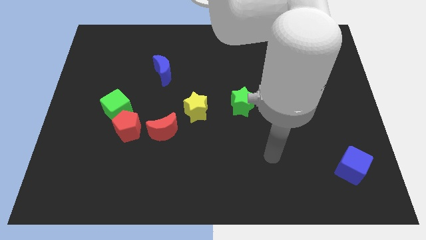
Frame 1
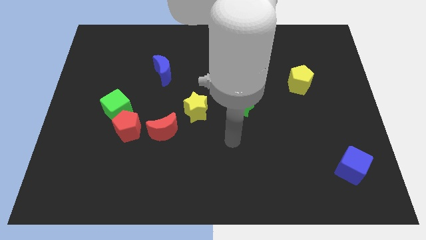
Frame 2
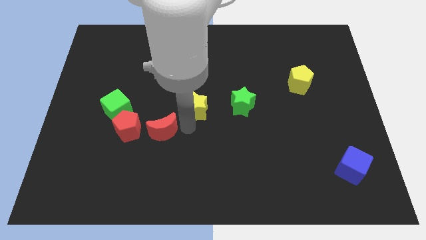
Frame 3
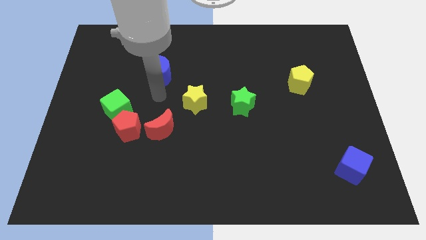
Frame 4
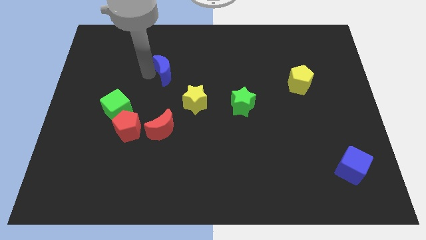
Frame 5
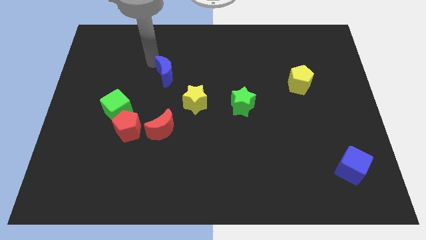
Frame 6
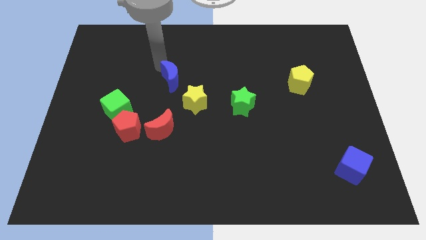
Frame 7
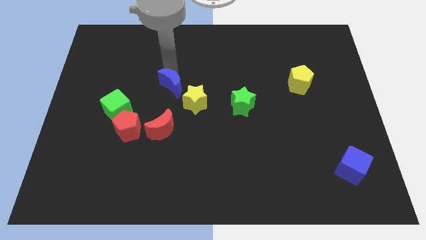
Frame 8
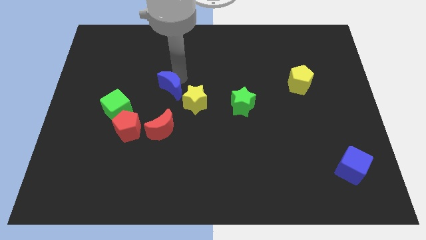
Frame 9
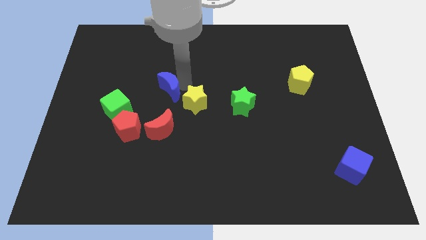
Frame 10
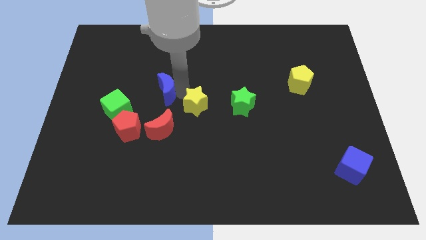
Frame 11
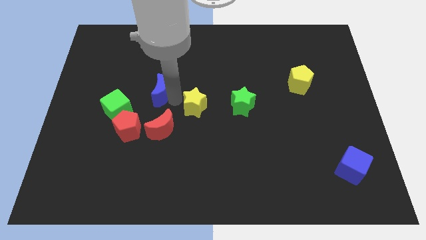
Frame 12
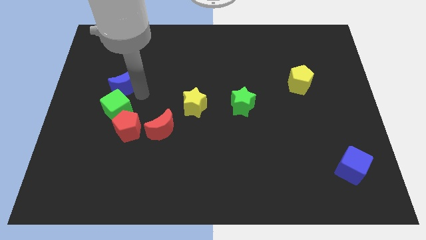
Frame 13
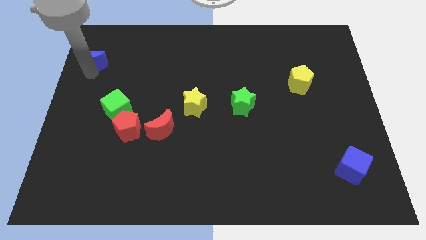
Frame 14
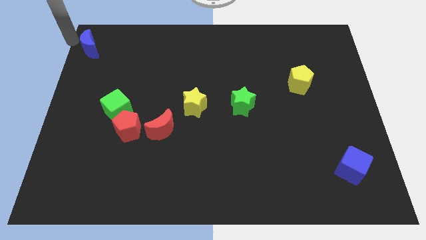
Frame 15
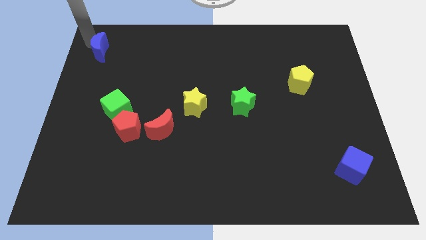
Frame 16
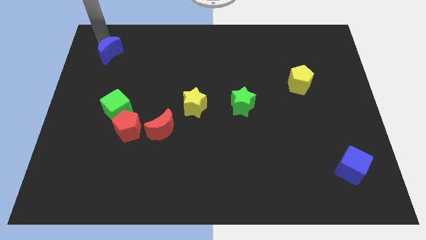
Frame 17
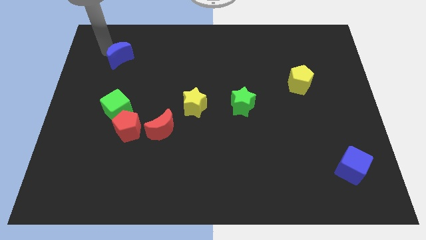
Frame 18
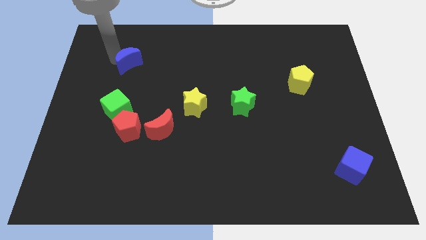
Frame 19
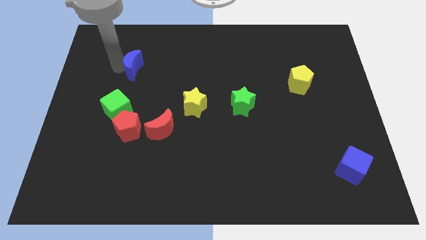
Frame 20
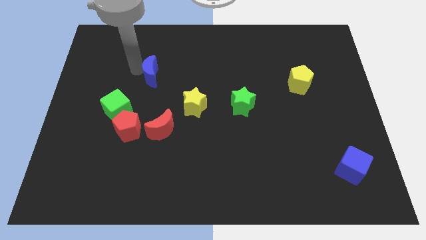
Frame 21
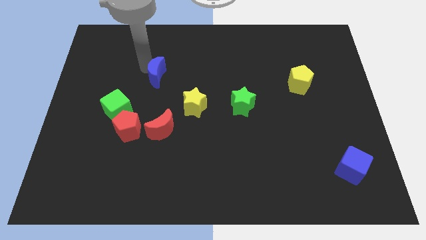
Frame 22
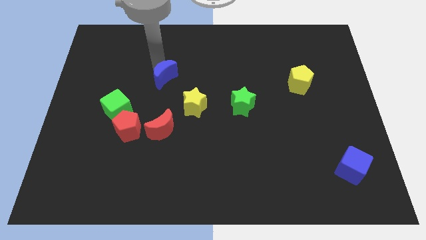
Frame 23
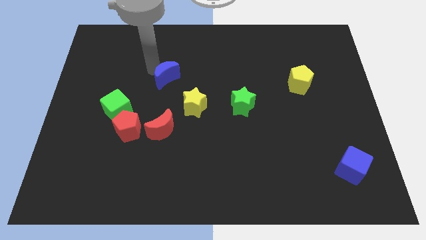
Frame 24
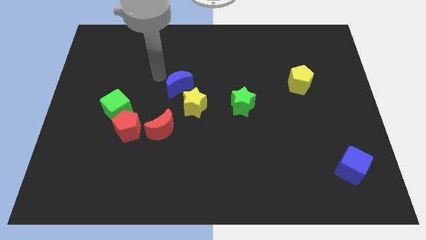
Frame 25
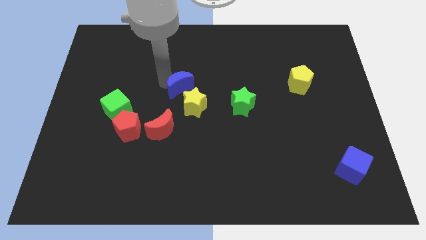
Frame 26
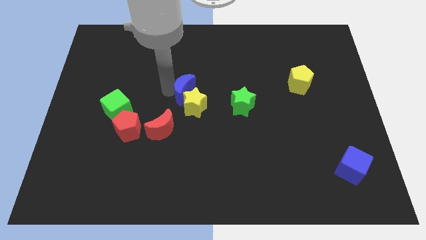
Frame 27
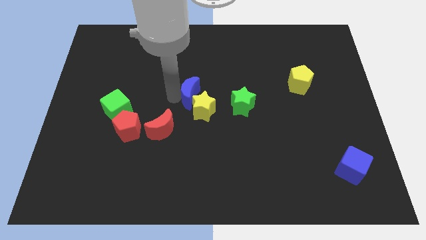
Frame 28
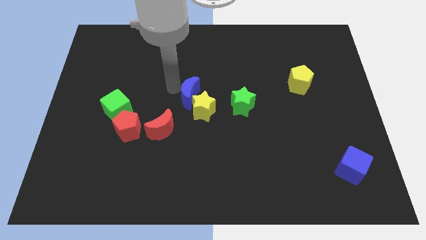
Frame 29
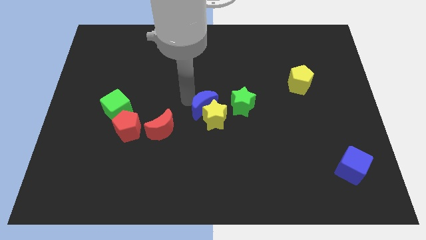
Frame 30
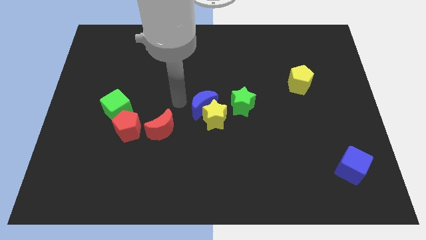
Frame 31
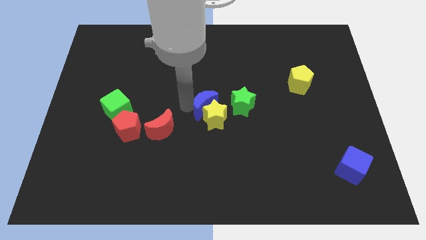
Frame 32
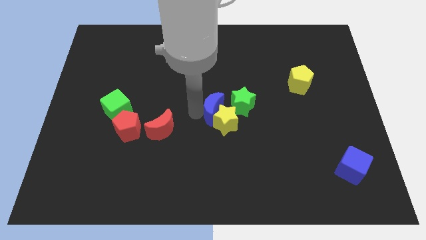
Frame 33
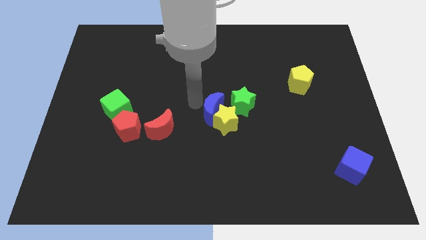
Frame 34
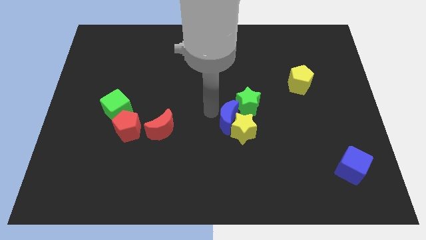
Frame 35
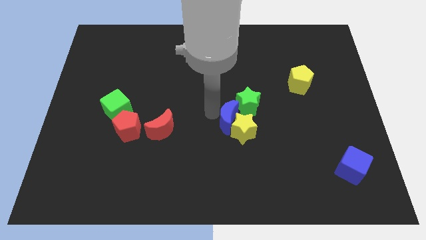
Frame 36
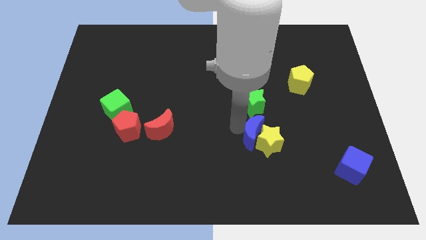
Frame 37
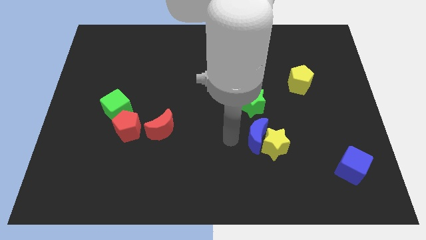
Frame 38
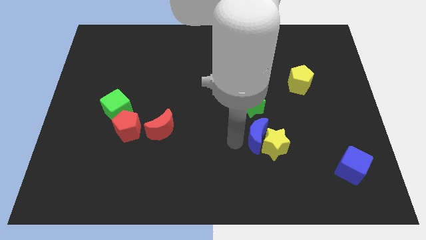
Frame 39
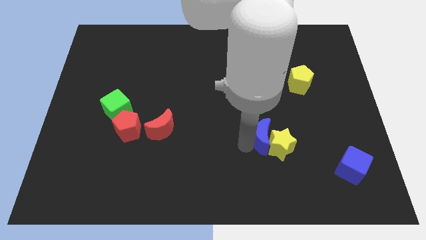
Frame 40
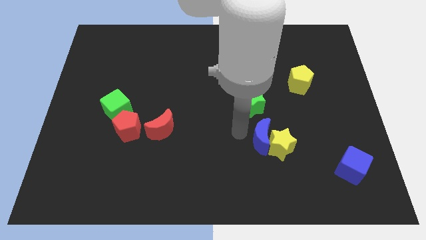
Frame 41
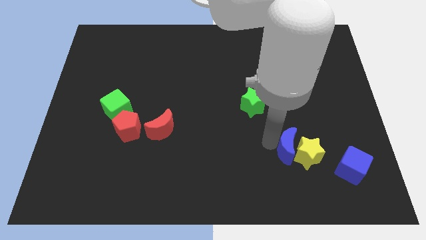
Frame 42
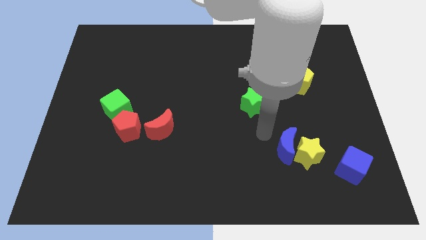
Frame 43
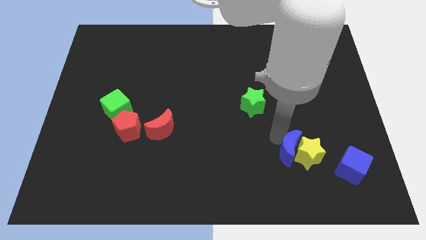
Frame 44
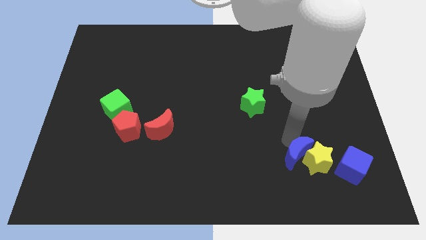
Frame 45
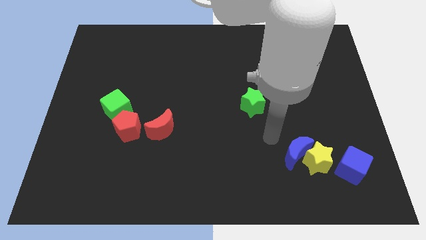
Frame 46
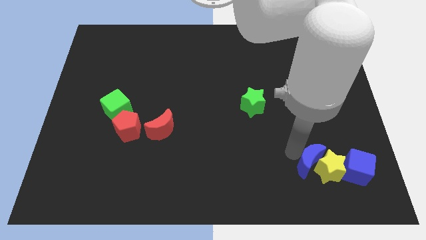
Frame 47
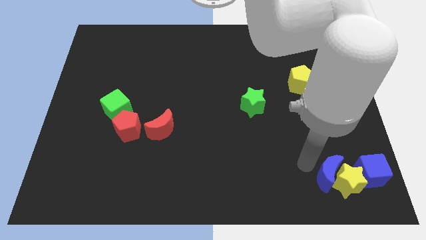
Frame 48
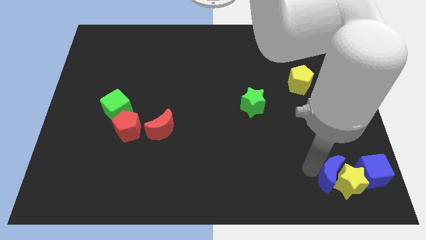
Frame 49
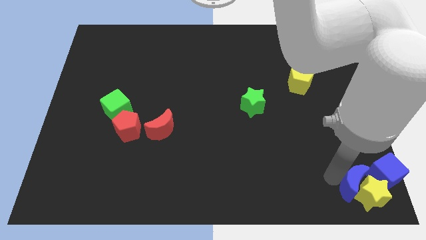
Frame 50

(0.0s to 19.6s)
slide the blue moon to the bottom right of the board

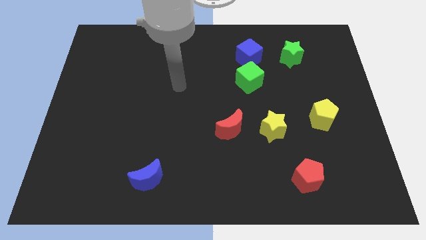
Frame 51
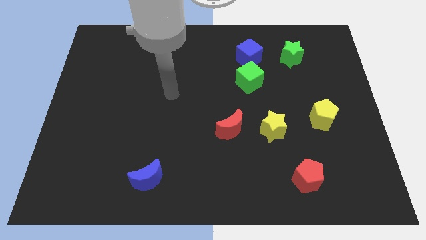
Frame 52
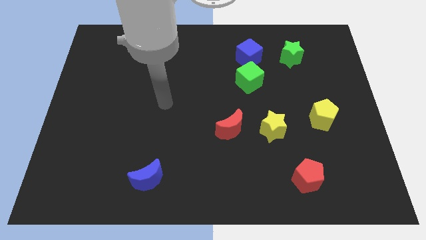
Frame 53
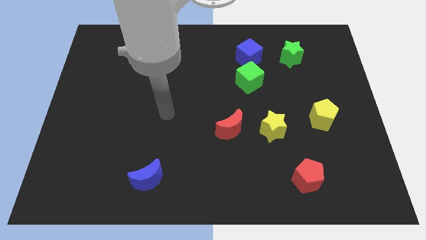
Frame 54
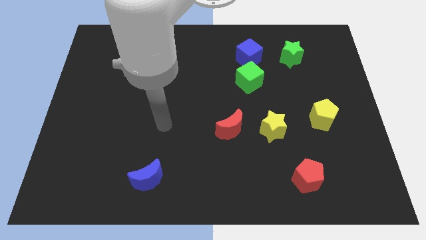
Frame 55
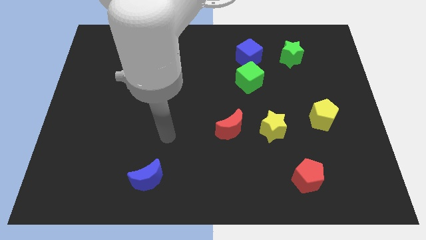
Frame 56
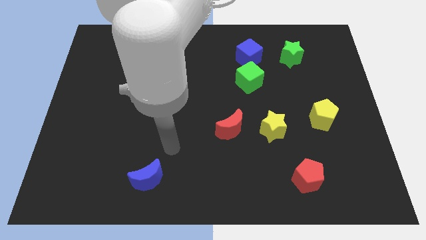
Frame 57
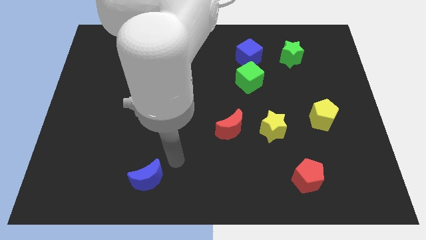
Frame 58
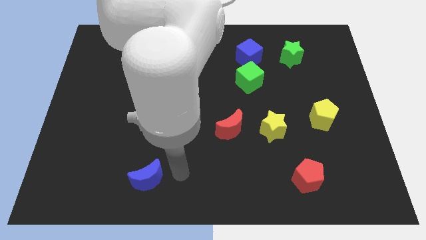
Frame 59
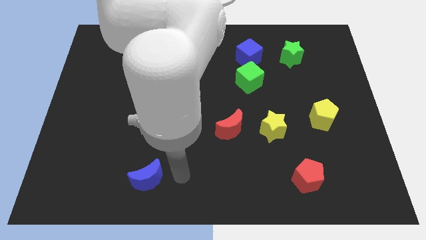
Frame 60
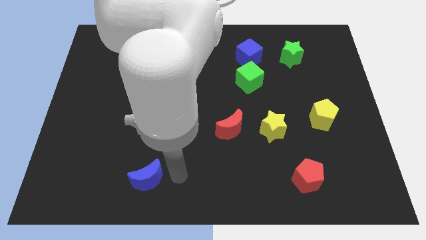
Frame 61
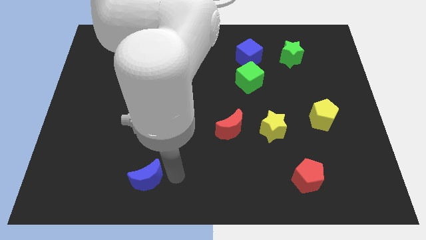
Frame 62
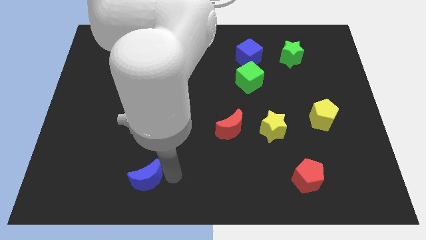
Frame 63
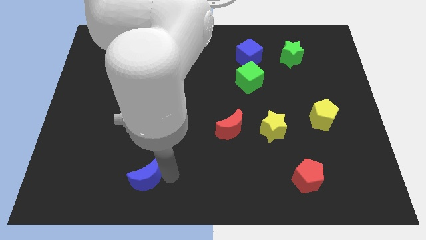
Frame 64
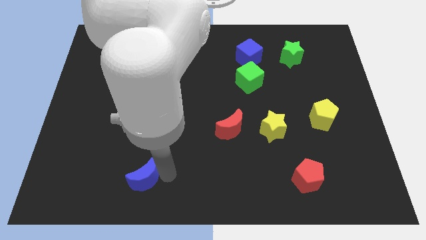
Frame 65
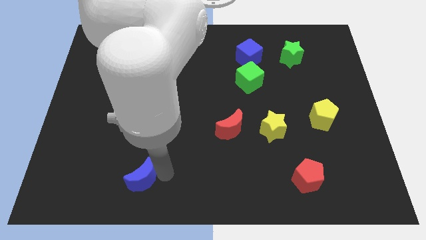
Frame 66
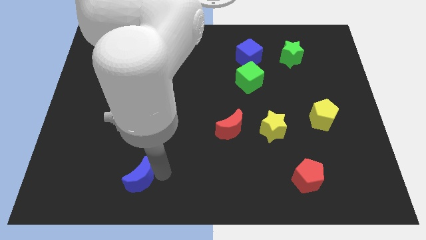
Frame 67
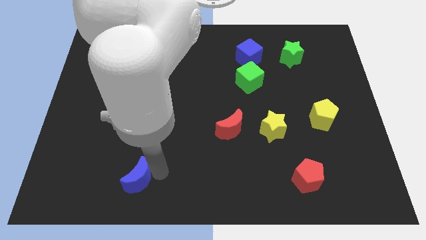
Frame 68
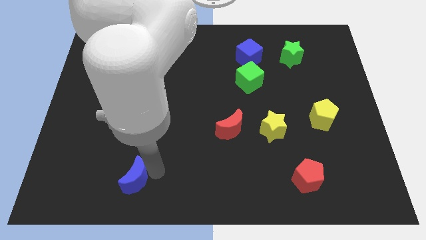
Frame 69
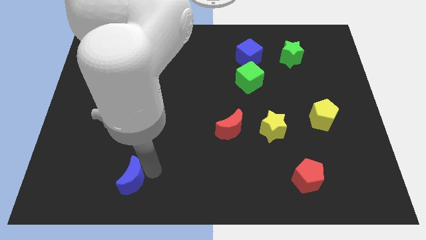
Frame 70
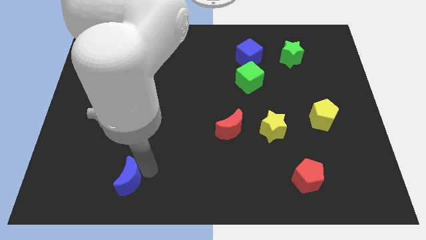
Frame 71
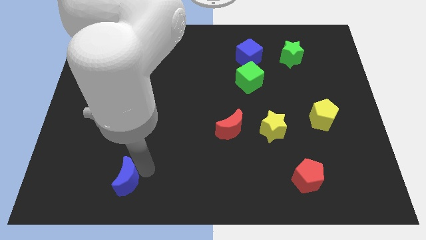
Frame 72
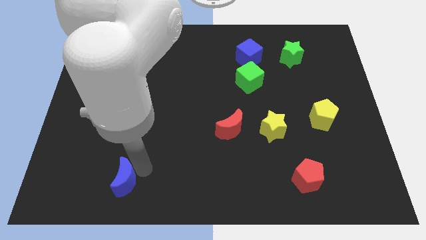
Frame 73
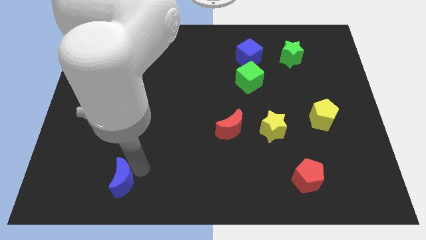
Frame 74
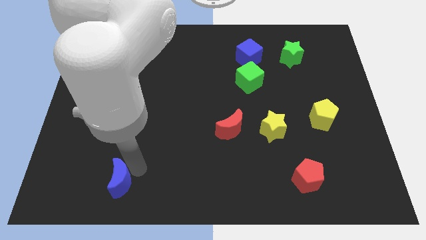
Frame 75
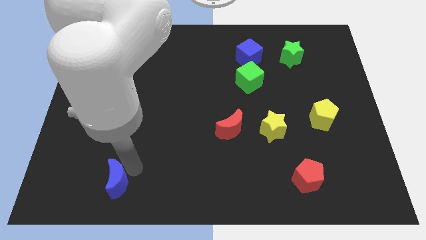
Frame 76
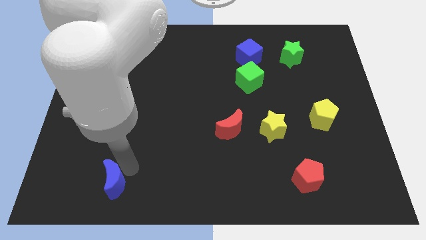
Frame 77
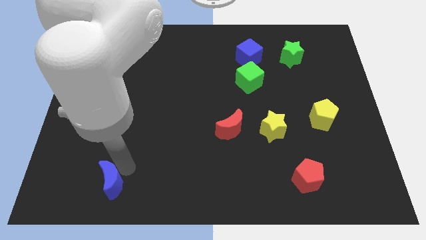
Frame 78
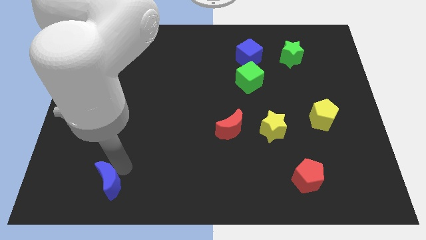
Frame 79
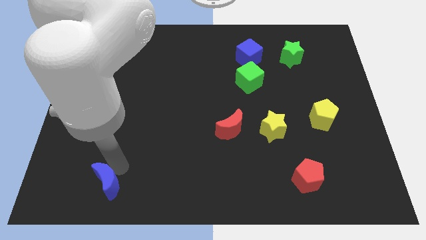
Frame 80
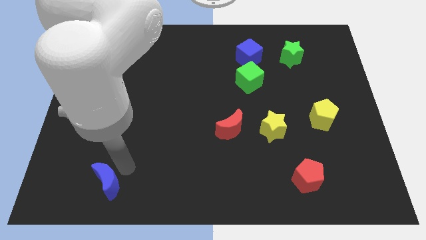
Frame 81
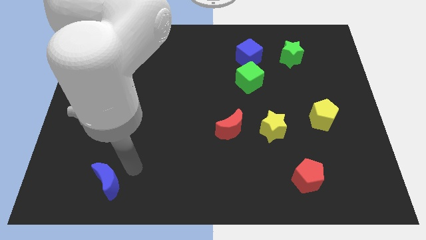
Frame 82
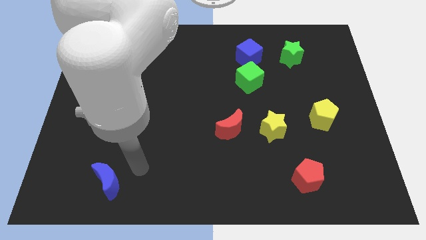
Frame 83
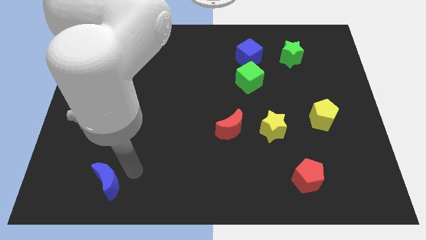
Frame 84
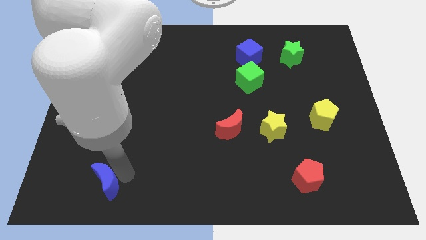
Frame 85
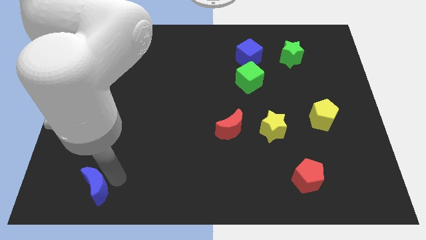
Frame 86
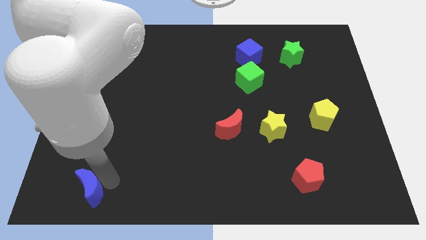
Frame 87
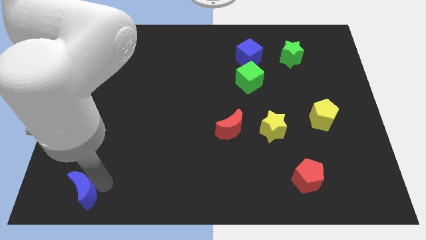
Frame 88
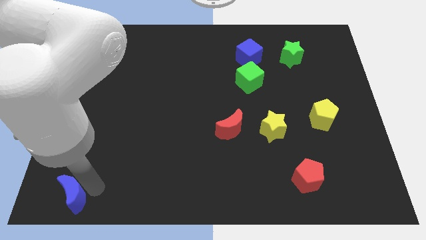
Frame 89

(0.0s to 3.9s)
move the blue moon to the bottom left corner
